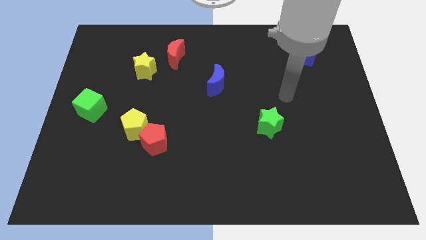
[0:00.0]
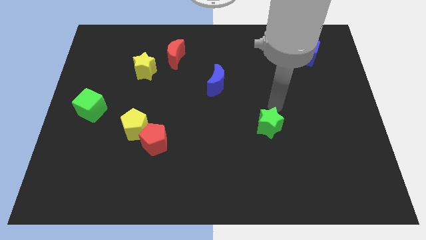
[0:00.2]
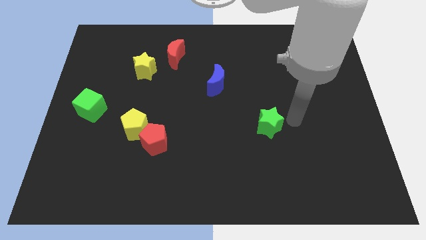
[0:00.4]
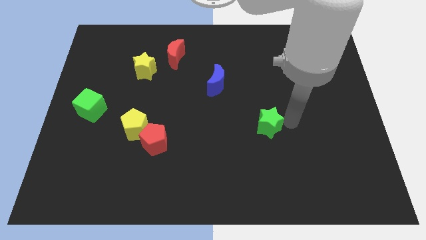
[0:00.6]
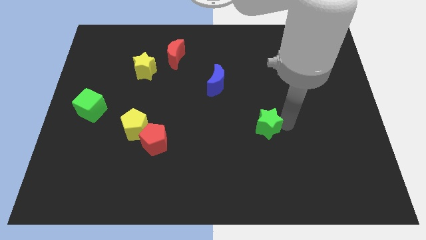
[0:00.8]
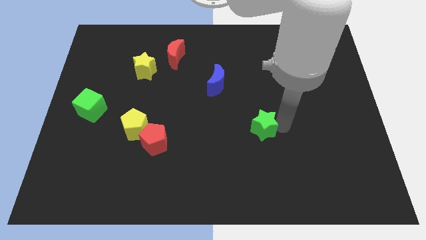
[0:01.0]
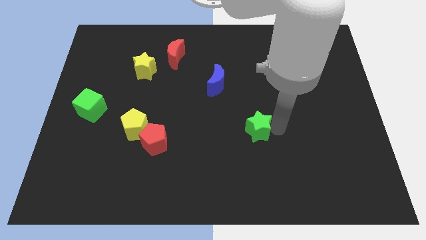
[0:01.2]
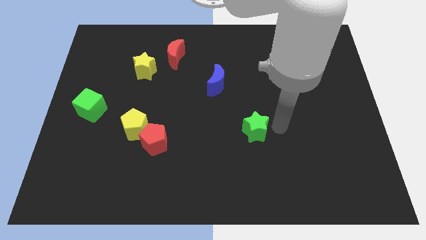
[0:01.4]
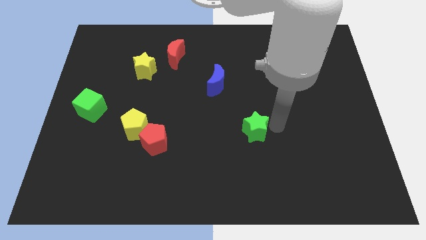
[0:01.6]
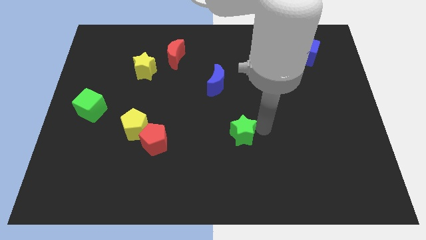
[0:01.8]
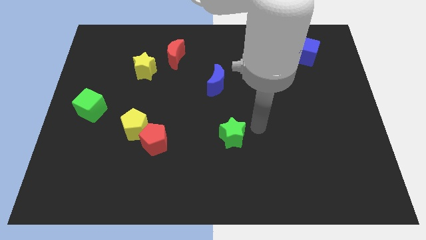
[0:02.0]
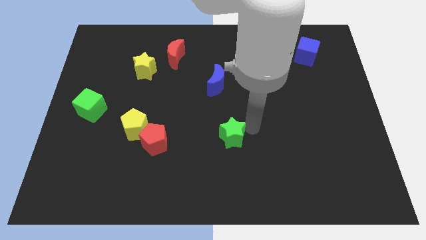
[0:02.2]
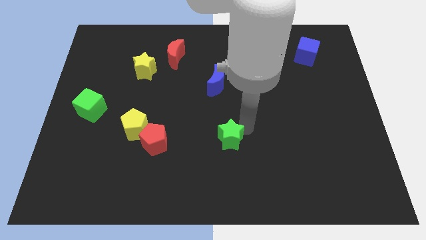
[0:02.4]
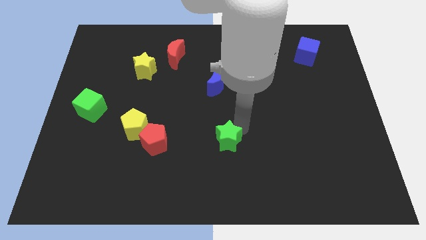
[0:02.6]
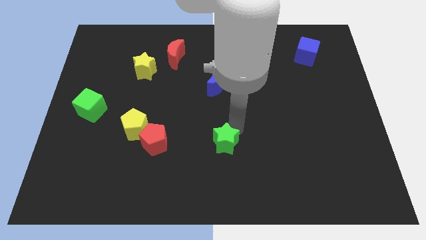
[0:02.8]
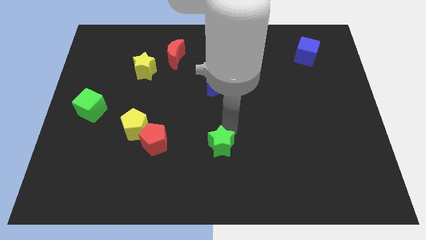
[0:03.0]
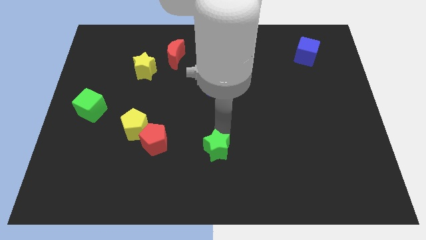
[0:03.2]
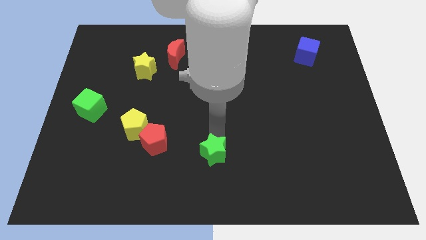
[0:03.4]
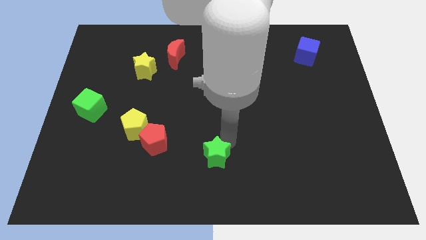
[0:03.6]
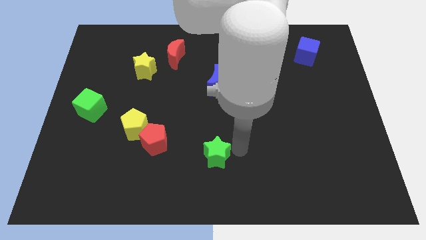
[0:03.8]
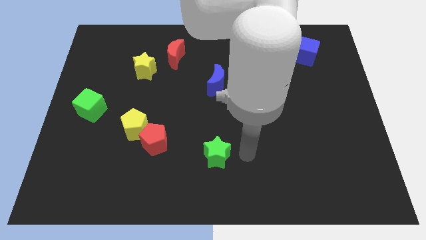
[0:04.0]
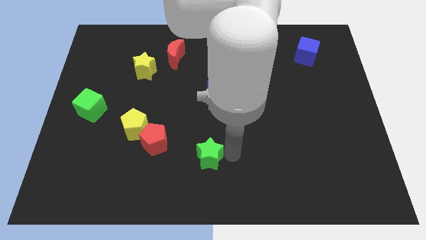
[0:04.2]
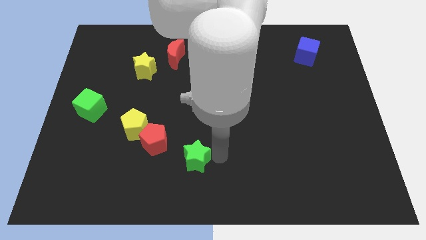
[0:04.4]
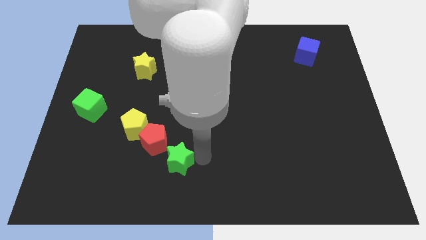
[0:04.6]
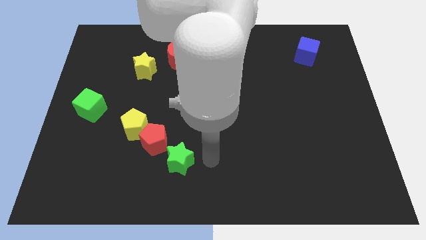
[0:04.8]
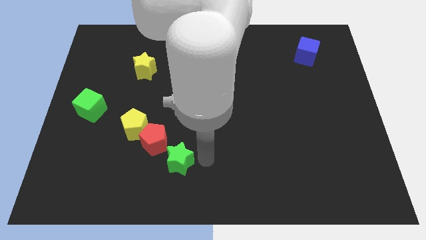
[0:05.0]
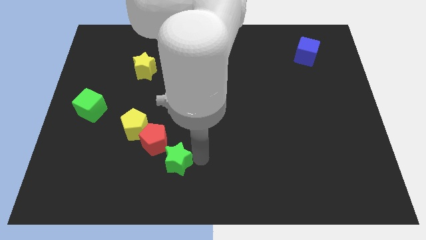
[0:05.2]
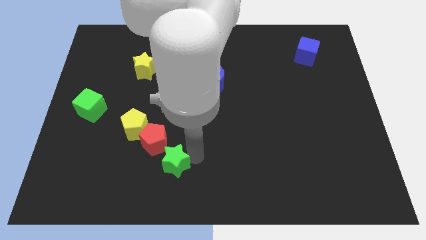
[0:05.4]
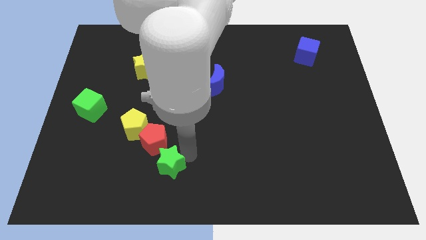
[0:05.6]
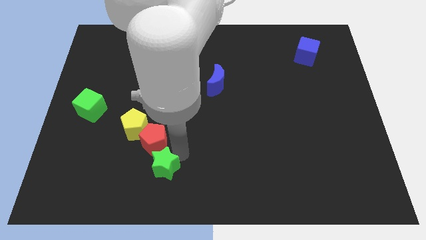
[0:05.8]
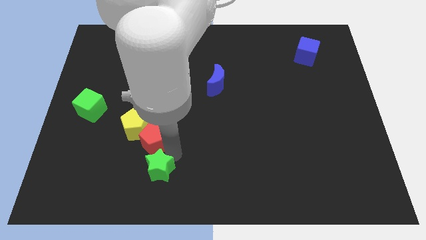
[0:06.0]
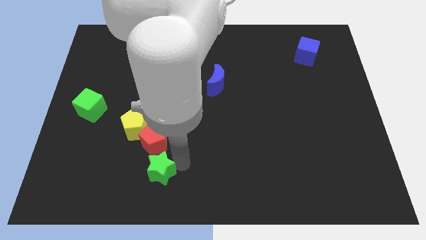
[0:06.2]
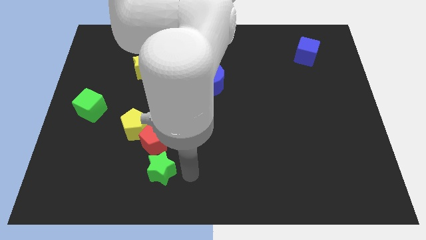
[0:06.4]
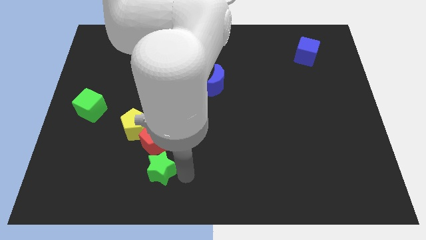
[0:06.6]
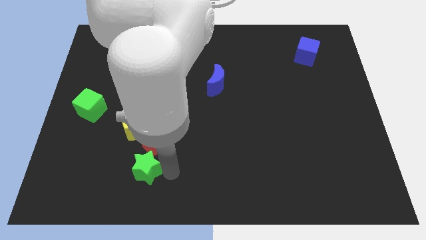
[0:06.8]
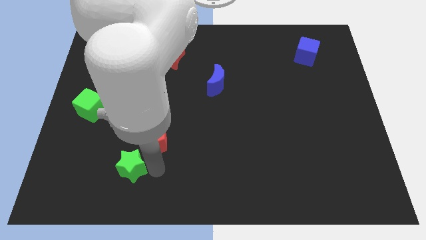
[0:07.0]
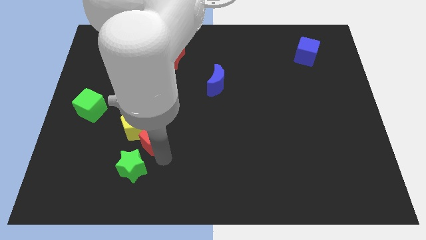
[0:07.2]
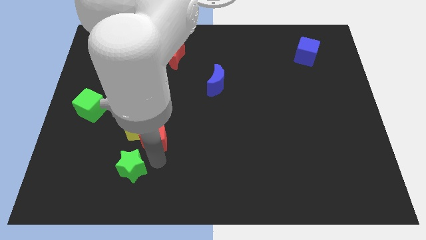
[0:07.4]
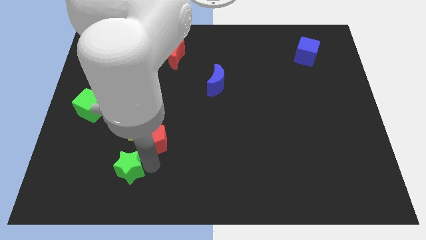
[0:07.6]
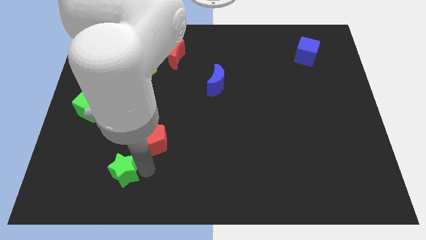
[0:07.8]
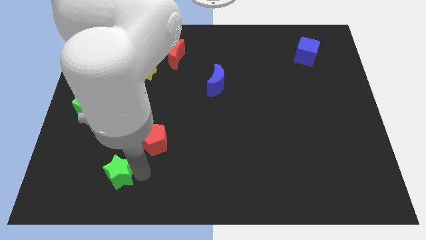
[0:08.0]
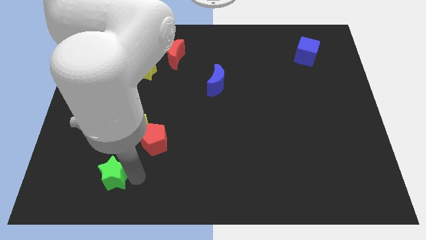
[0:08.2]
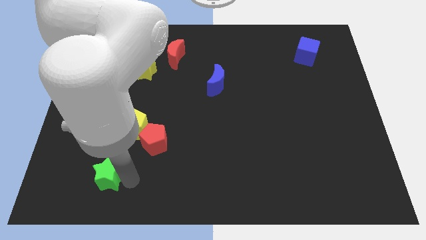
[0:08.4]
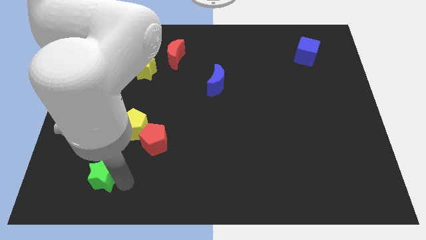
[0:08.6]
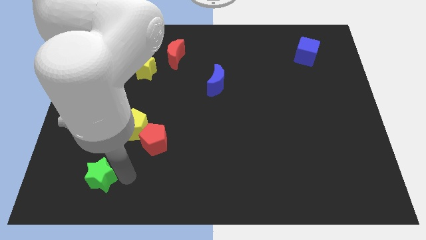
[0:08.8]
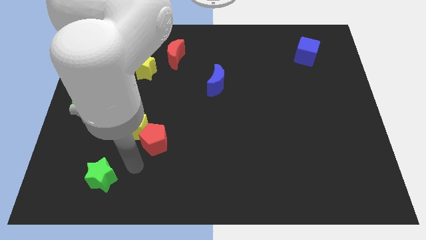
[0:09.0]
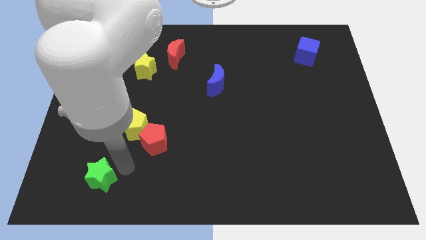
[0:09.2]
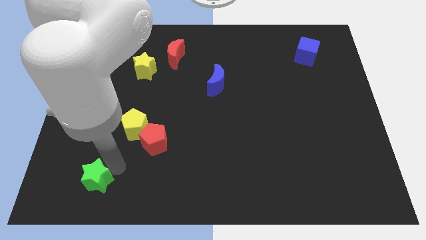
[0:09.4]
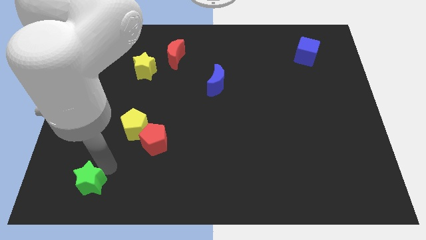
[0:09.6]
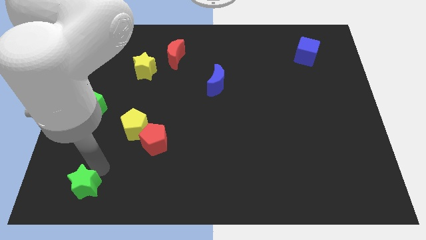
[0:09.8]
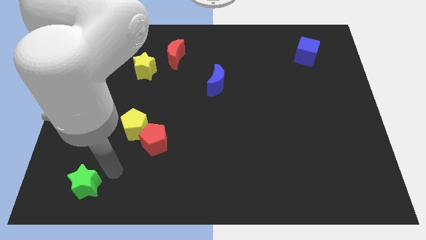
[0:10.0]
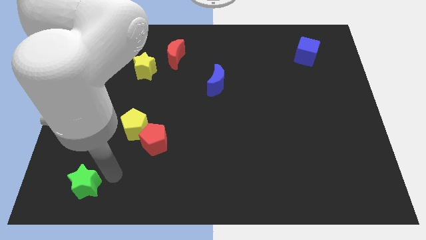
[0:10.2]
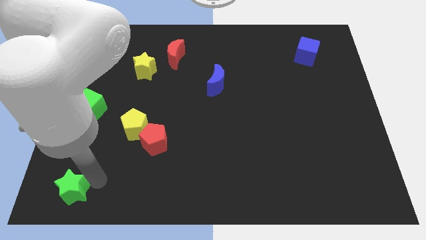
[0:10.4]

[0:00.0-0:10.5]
put the green star to the lower left corner

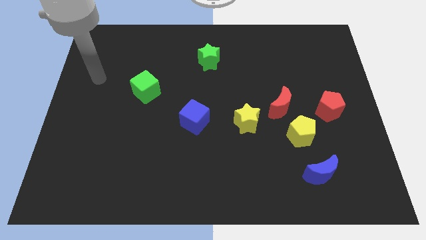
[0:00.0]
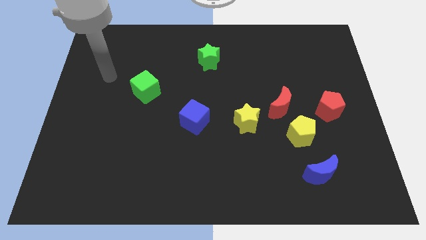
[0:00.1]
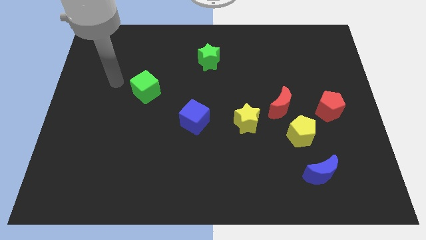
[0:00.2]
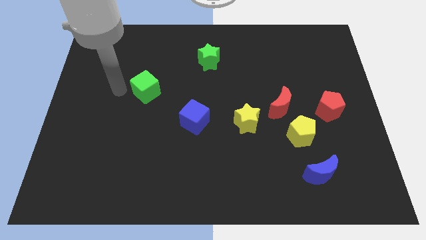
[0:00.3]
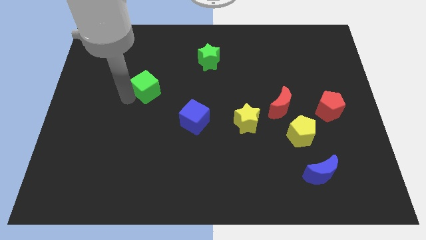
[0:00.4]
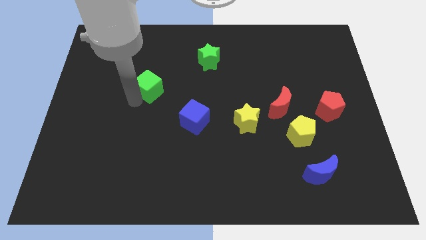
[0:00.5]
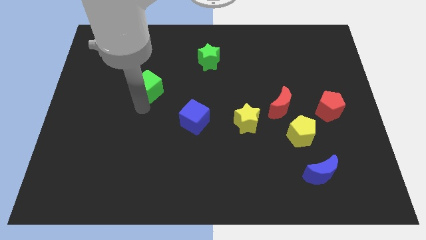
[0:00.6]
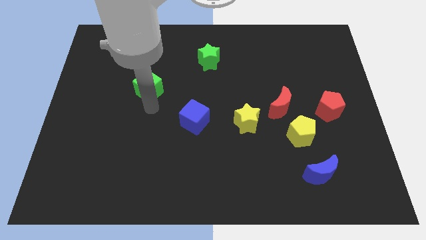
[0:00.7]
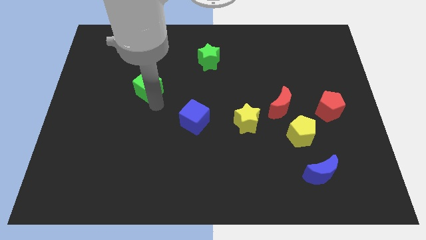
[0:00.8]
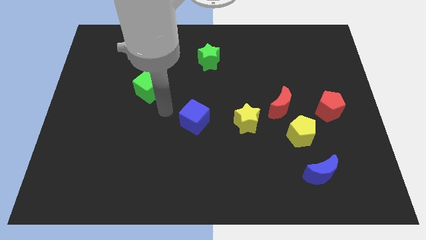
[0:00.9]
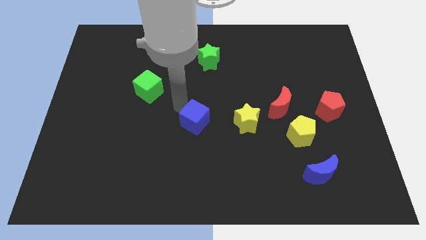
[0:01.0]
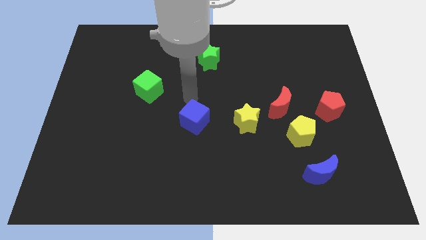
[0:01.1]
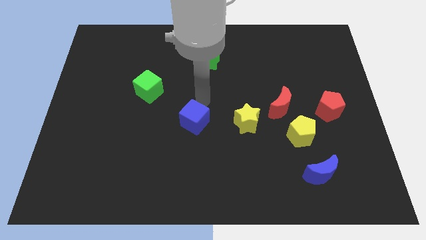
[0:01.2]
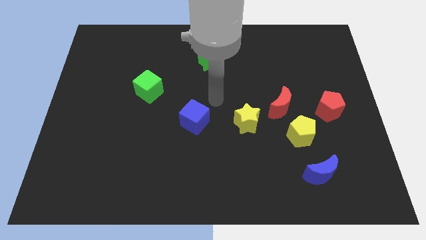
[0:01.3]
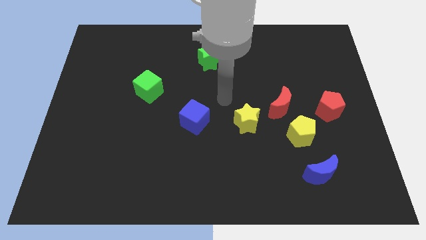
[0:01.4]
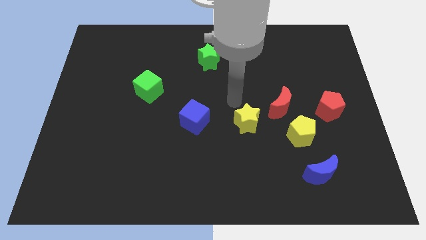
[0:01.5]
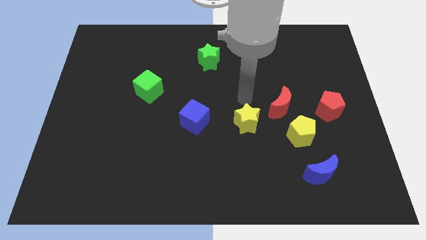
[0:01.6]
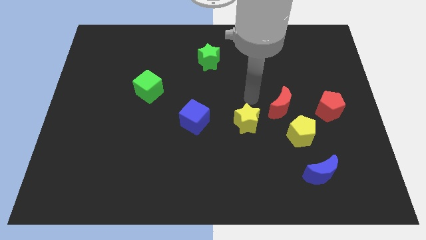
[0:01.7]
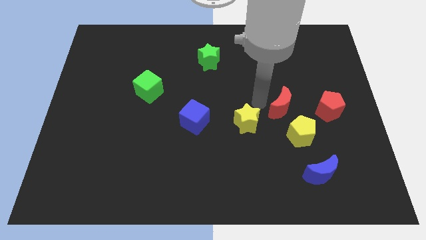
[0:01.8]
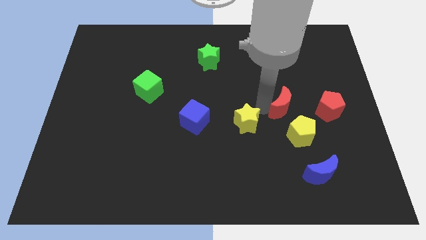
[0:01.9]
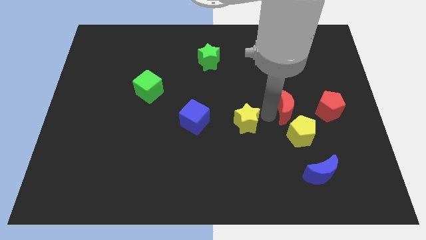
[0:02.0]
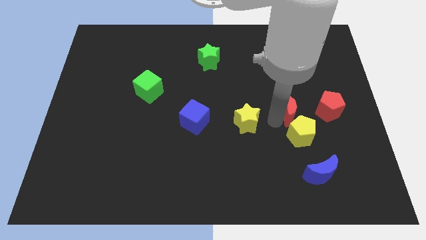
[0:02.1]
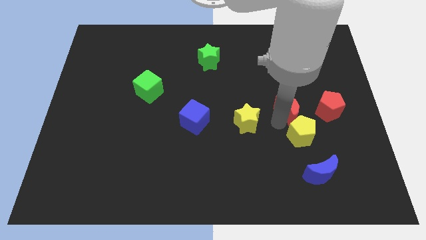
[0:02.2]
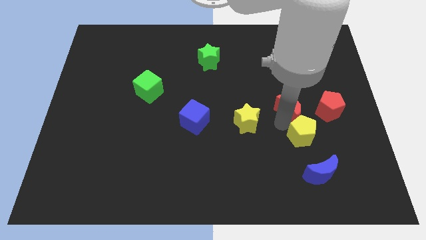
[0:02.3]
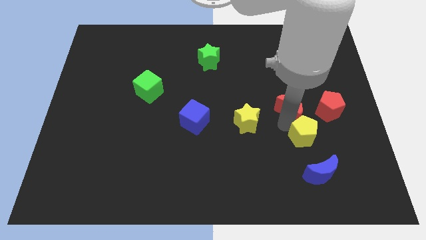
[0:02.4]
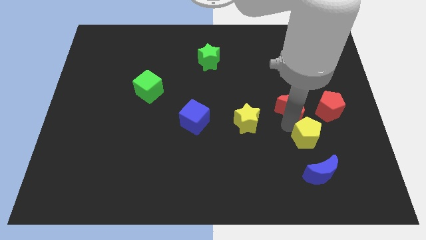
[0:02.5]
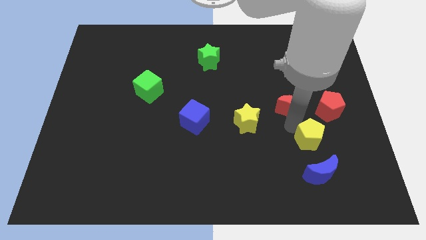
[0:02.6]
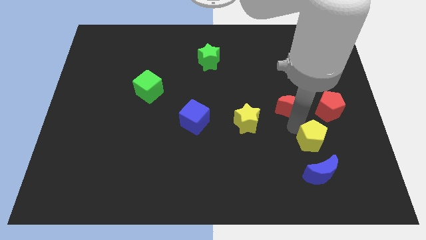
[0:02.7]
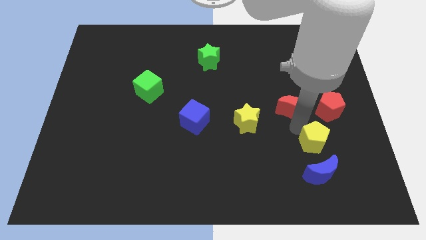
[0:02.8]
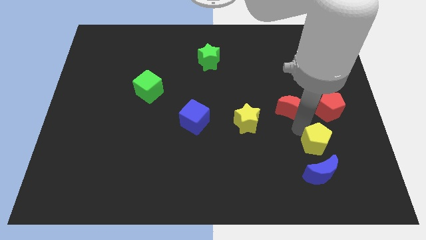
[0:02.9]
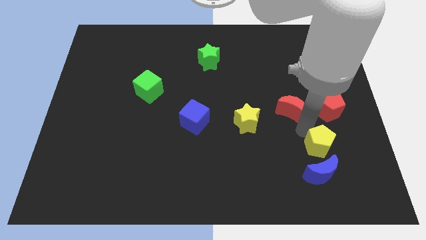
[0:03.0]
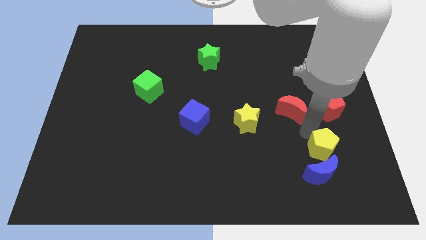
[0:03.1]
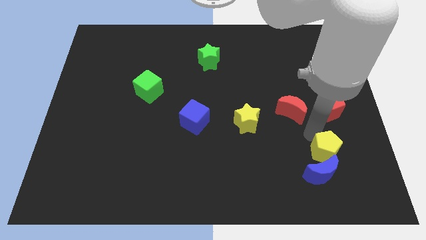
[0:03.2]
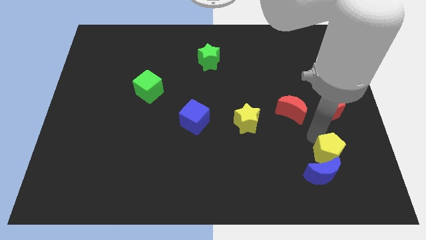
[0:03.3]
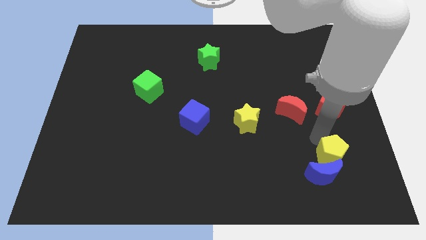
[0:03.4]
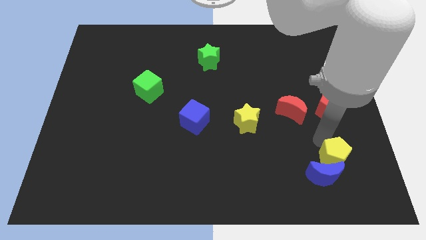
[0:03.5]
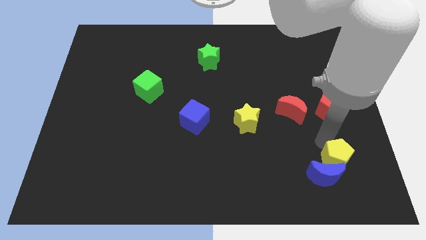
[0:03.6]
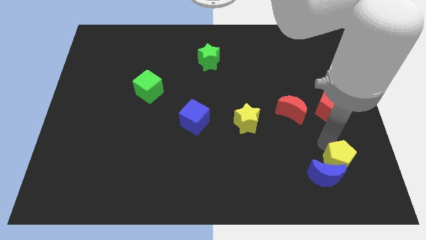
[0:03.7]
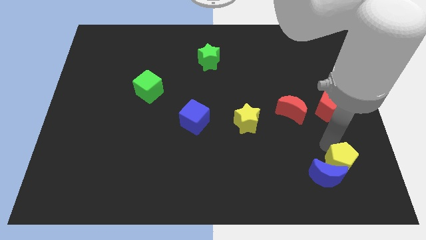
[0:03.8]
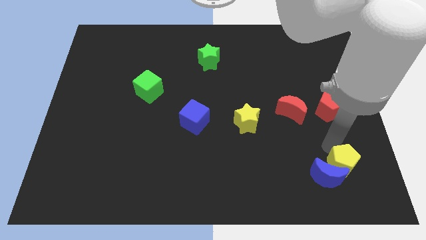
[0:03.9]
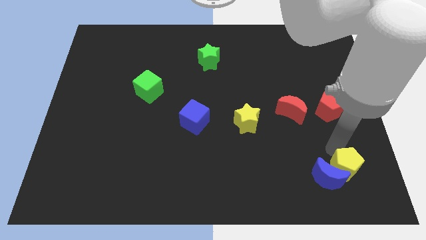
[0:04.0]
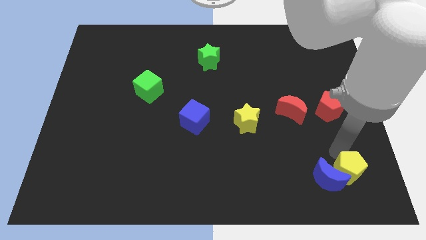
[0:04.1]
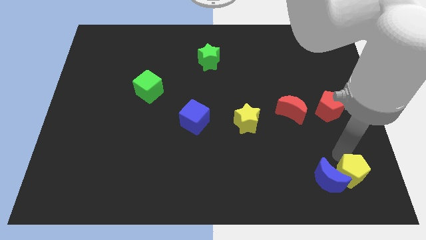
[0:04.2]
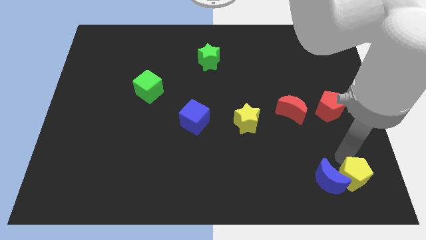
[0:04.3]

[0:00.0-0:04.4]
move the yellow pentagon to the bottom right corner
